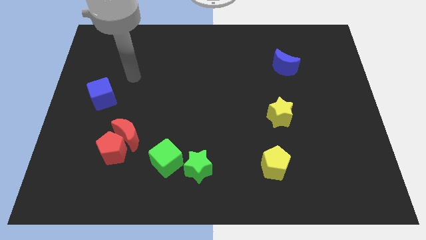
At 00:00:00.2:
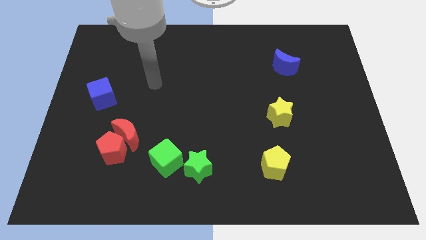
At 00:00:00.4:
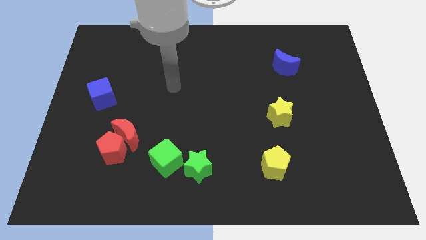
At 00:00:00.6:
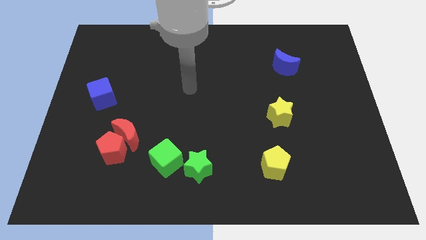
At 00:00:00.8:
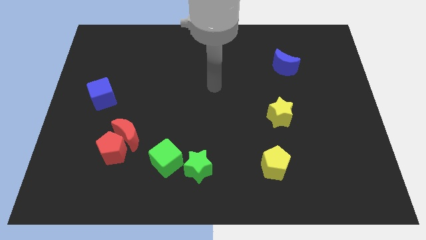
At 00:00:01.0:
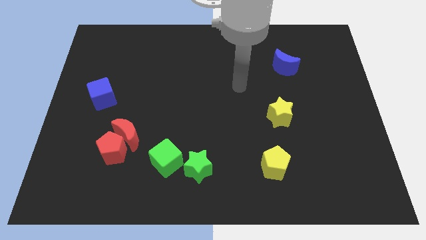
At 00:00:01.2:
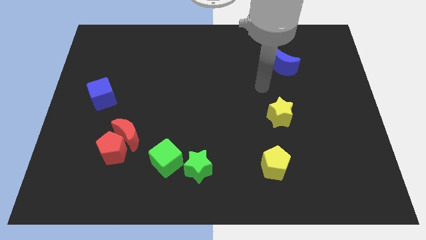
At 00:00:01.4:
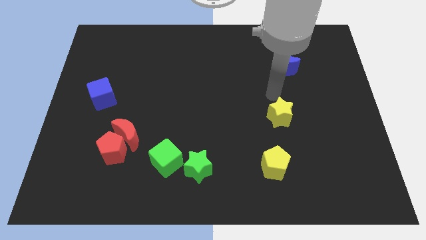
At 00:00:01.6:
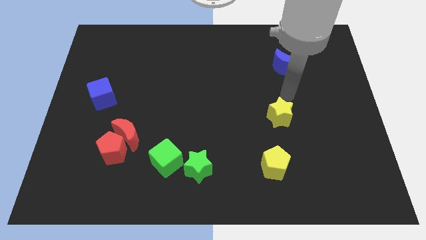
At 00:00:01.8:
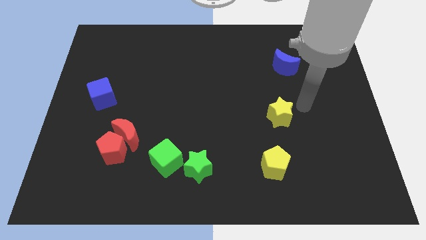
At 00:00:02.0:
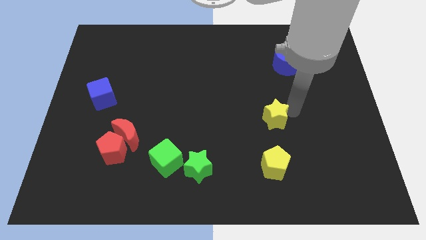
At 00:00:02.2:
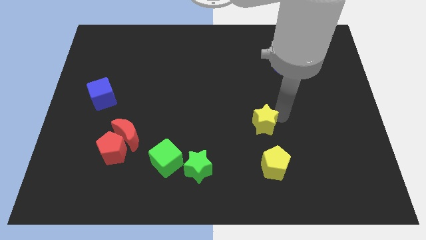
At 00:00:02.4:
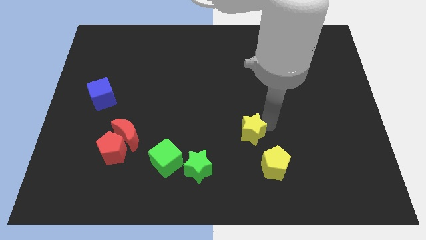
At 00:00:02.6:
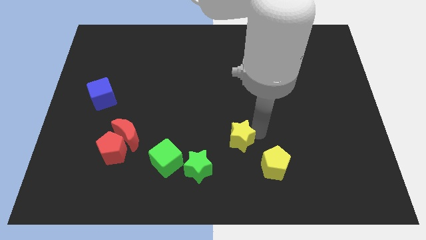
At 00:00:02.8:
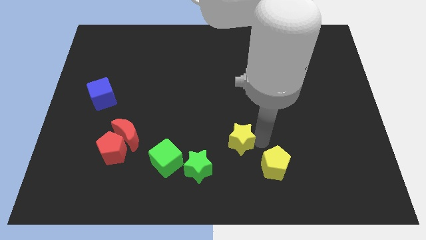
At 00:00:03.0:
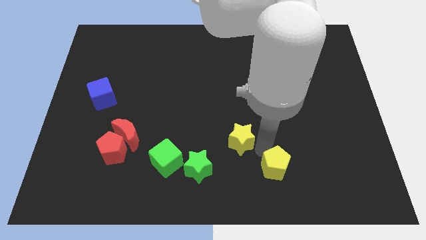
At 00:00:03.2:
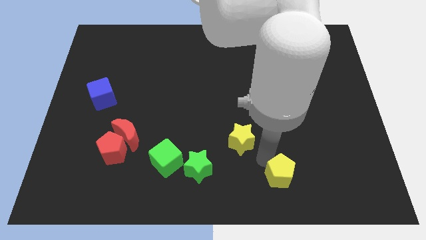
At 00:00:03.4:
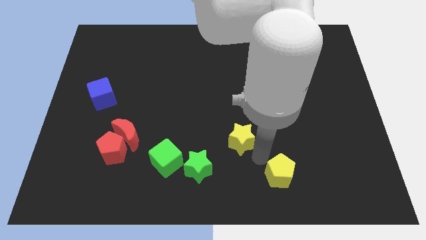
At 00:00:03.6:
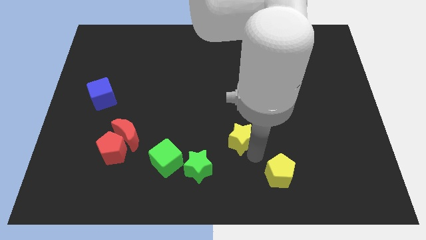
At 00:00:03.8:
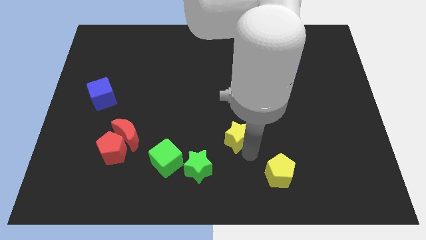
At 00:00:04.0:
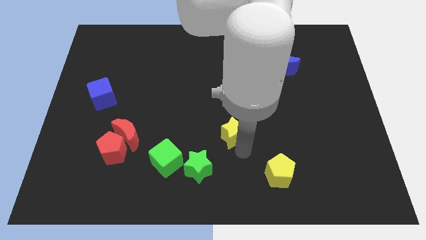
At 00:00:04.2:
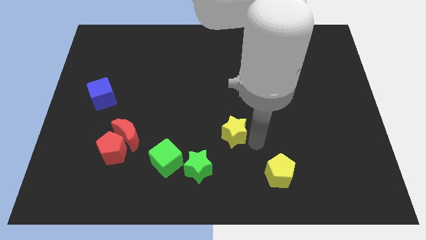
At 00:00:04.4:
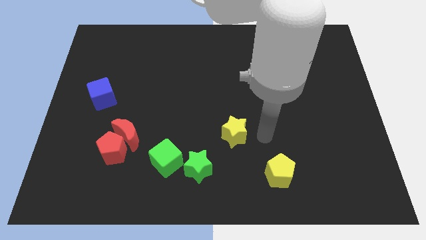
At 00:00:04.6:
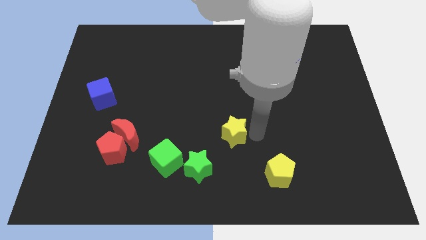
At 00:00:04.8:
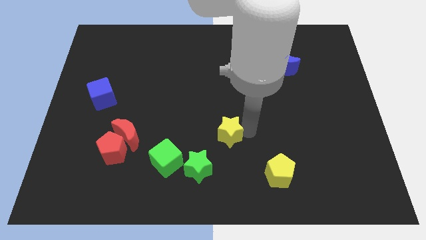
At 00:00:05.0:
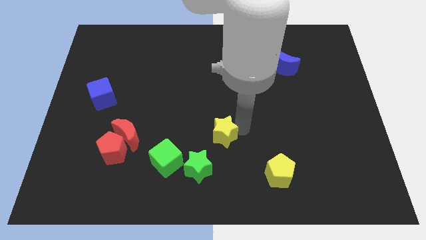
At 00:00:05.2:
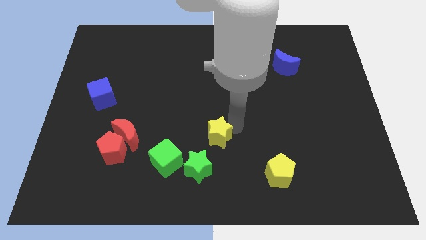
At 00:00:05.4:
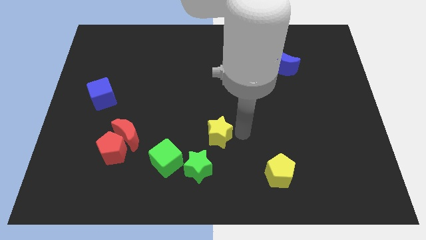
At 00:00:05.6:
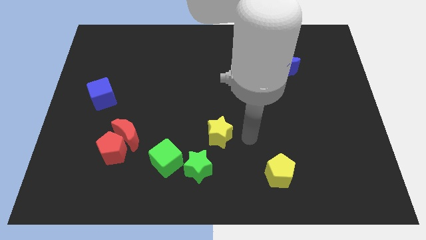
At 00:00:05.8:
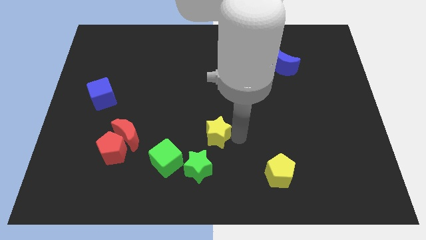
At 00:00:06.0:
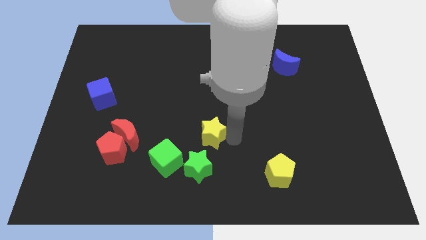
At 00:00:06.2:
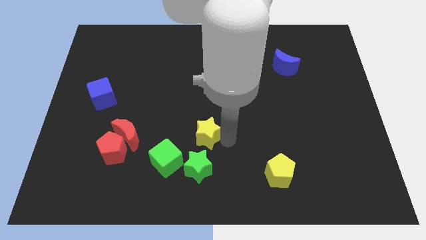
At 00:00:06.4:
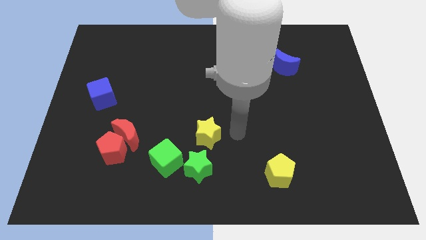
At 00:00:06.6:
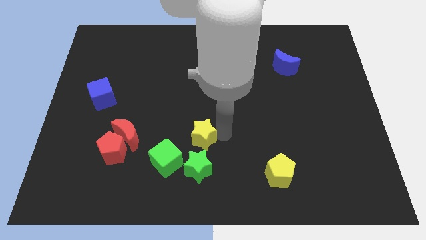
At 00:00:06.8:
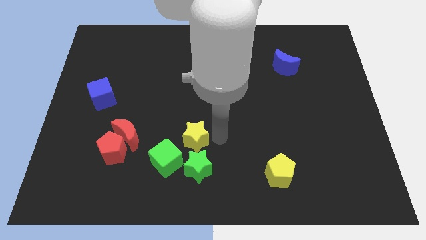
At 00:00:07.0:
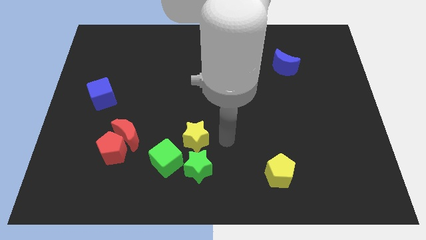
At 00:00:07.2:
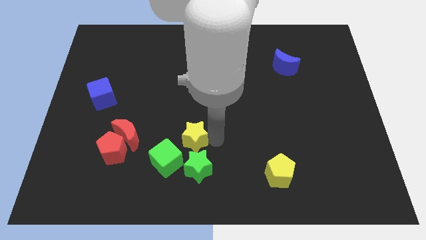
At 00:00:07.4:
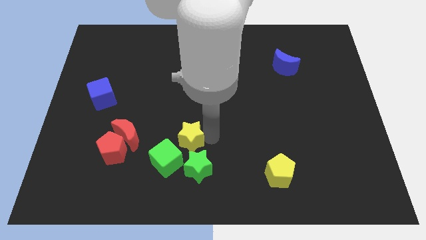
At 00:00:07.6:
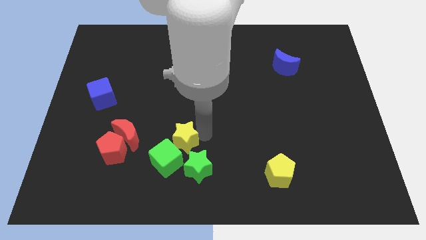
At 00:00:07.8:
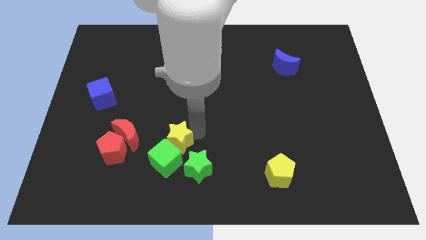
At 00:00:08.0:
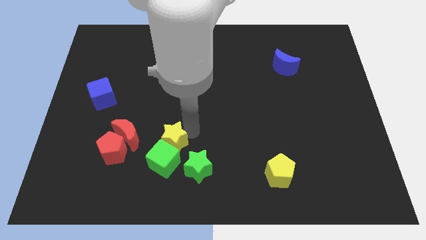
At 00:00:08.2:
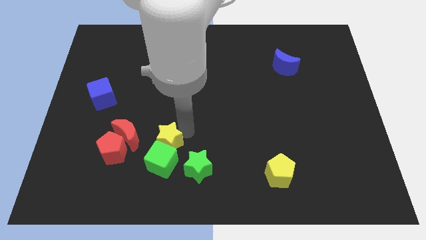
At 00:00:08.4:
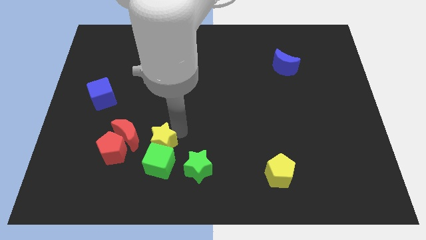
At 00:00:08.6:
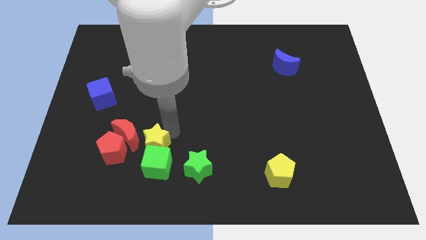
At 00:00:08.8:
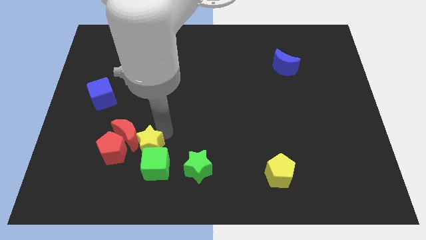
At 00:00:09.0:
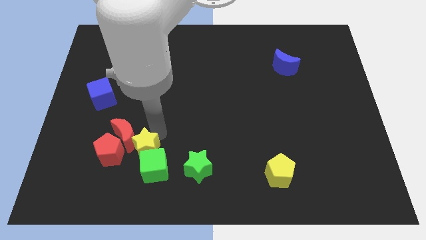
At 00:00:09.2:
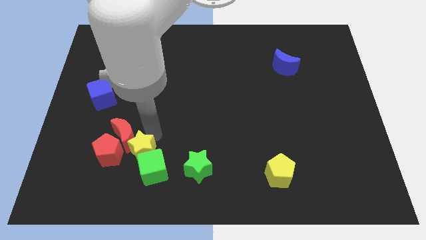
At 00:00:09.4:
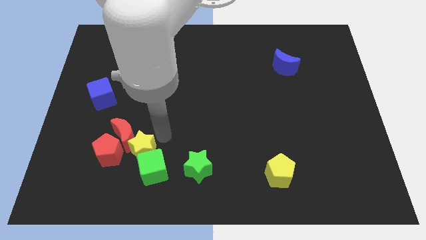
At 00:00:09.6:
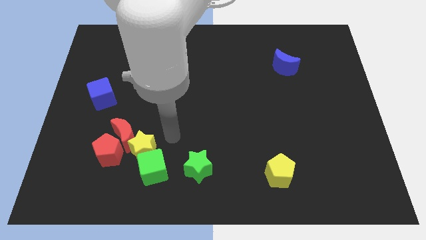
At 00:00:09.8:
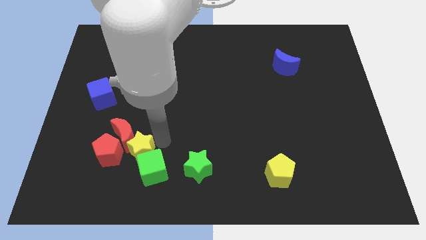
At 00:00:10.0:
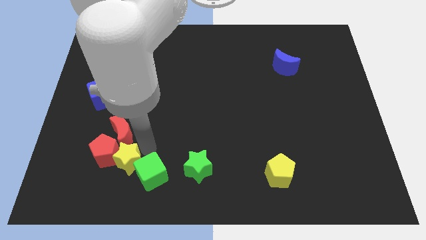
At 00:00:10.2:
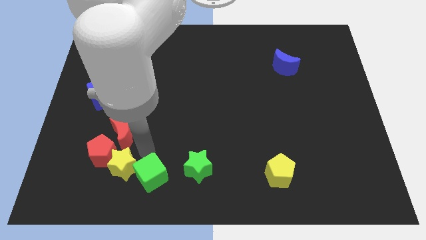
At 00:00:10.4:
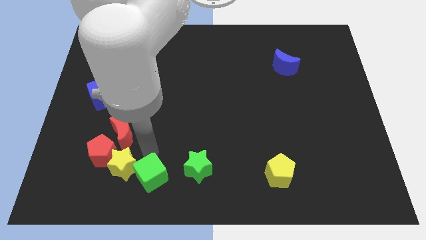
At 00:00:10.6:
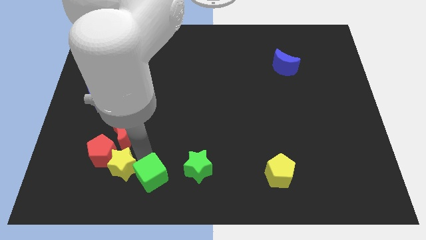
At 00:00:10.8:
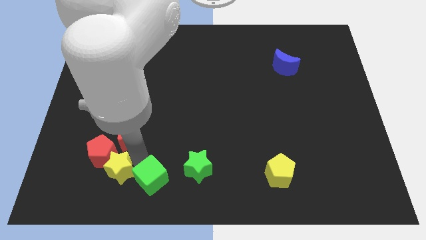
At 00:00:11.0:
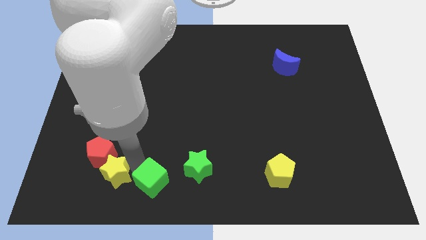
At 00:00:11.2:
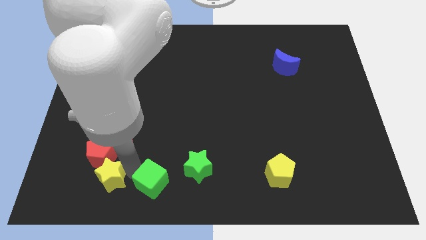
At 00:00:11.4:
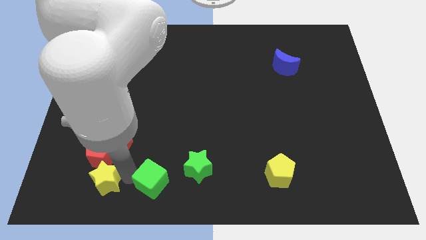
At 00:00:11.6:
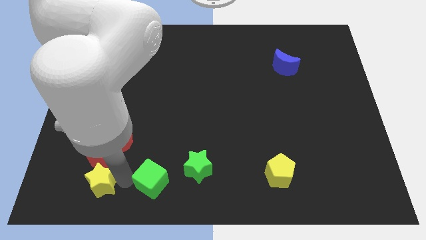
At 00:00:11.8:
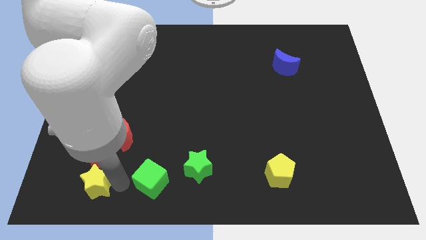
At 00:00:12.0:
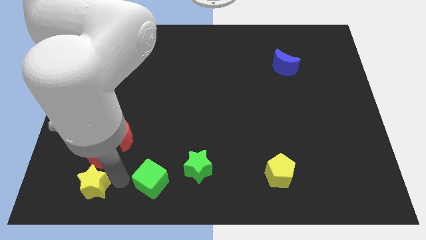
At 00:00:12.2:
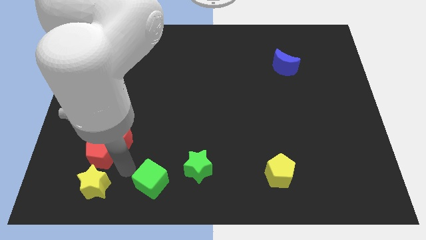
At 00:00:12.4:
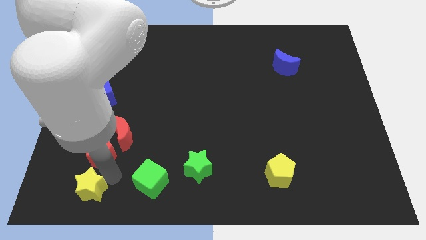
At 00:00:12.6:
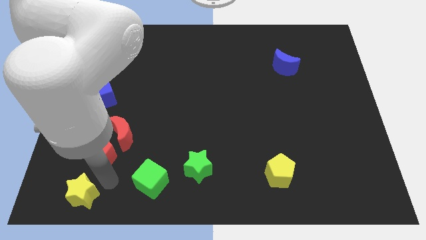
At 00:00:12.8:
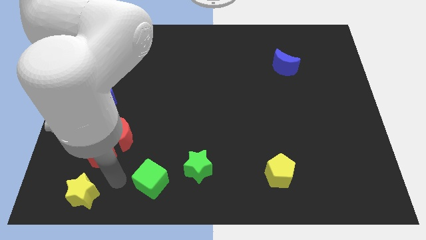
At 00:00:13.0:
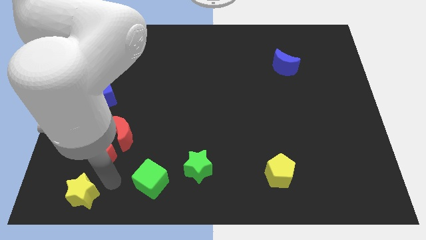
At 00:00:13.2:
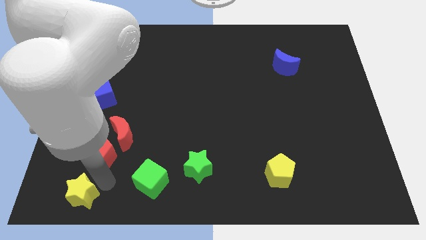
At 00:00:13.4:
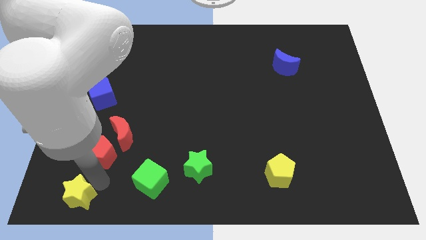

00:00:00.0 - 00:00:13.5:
move the yellow star to the bottom left corner
